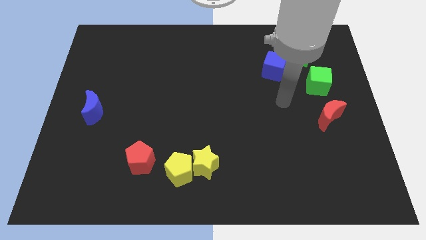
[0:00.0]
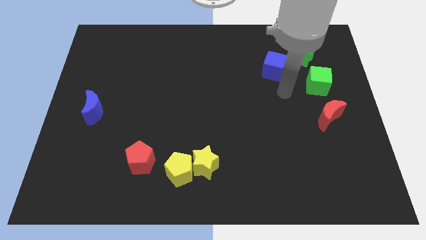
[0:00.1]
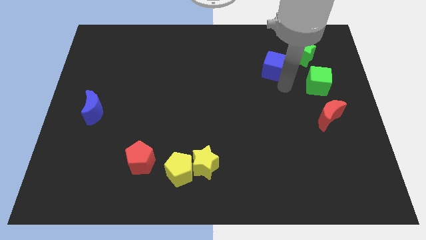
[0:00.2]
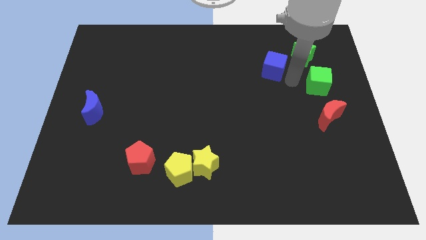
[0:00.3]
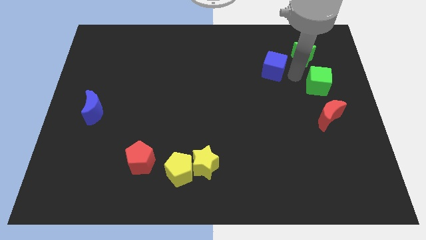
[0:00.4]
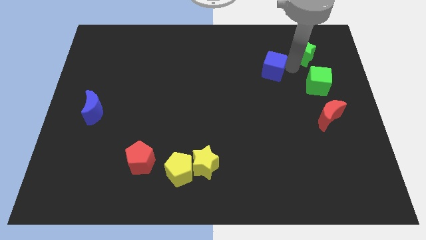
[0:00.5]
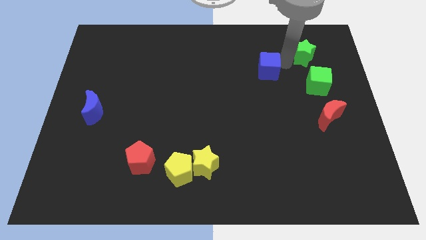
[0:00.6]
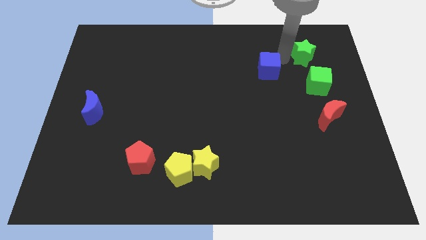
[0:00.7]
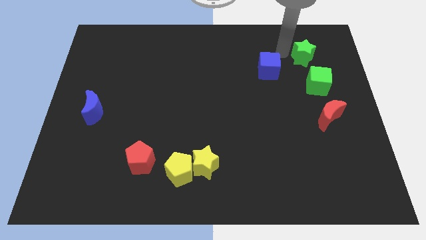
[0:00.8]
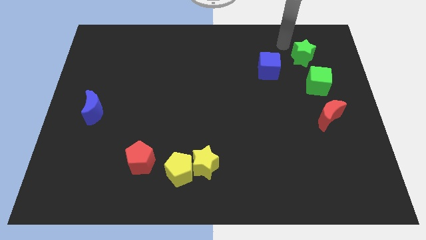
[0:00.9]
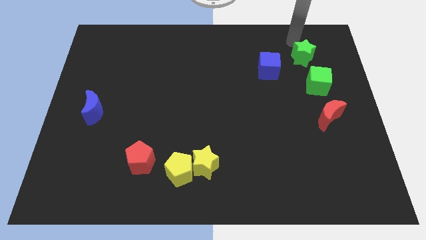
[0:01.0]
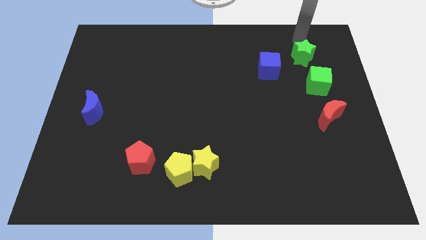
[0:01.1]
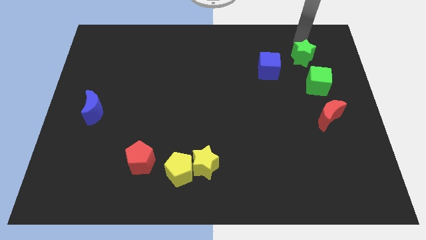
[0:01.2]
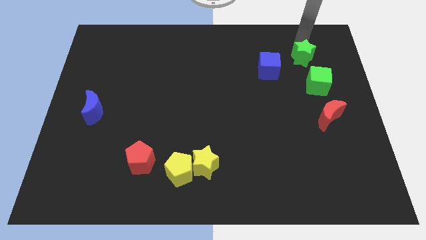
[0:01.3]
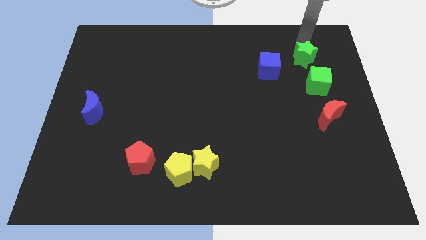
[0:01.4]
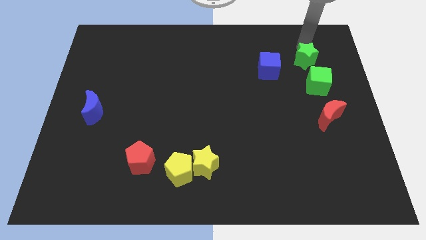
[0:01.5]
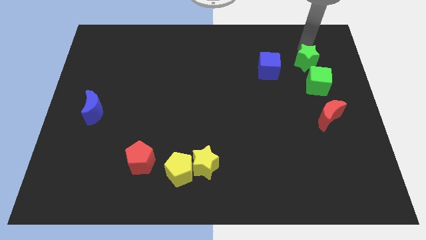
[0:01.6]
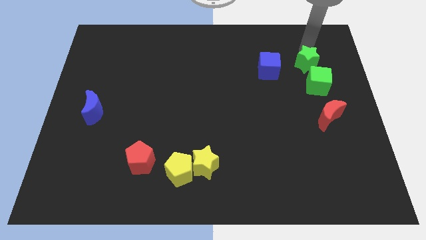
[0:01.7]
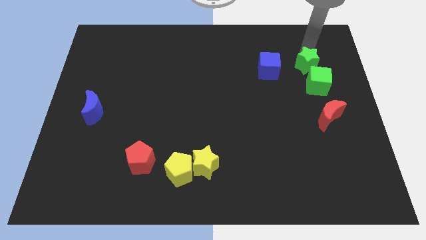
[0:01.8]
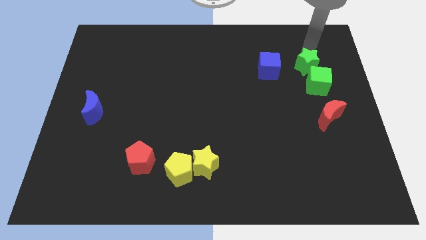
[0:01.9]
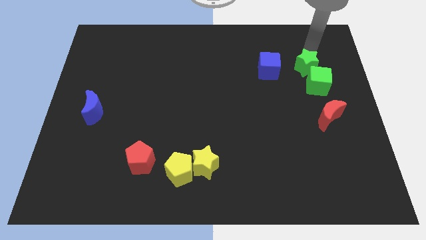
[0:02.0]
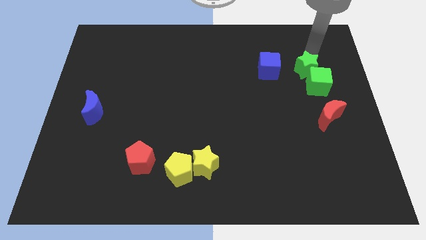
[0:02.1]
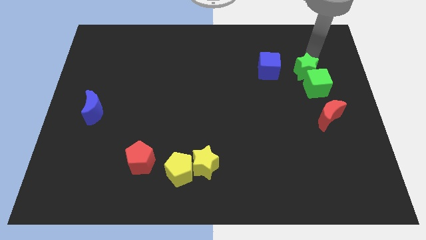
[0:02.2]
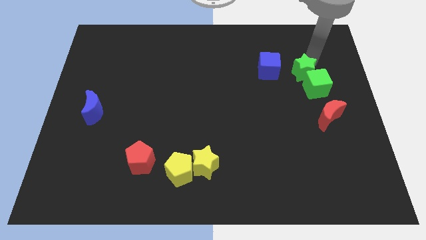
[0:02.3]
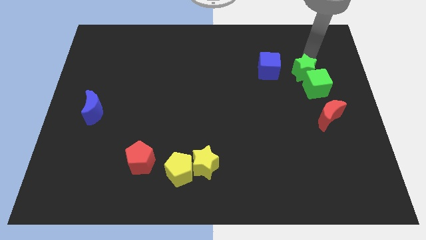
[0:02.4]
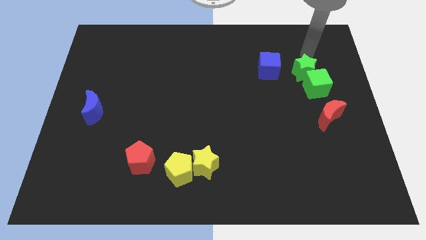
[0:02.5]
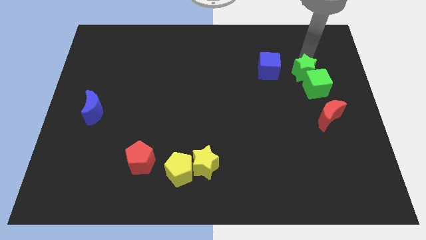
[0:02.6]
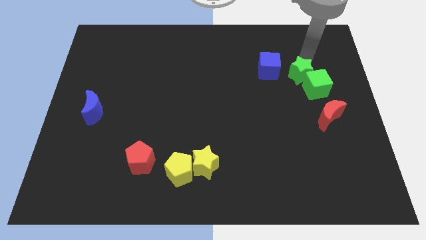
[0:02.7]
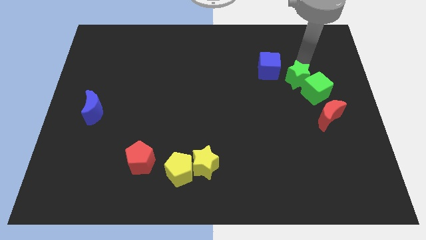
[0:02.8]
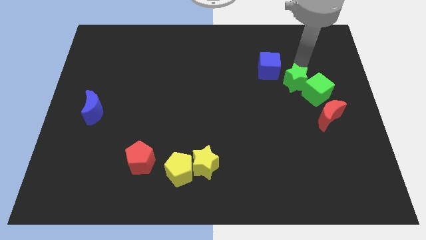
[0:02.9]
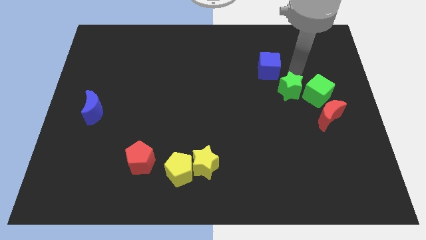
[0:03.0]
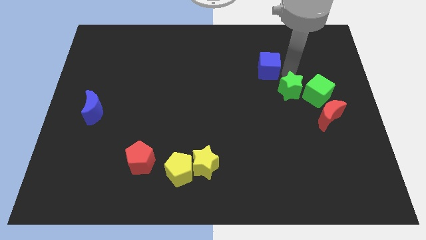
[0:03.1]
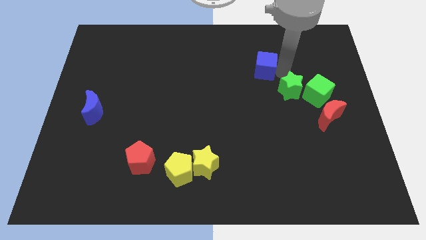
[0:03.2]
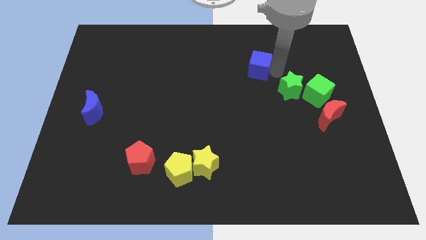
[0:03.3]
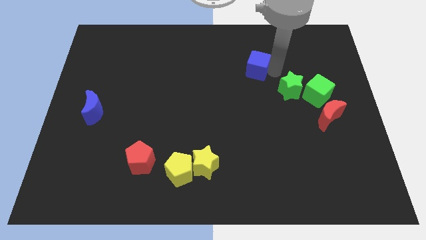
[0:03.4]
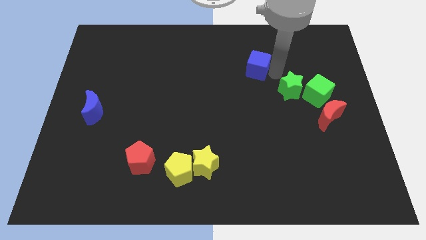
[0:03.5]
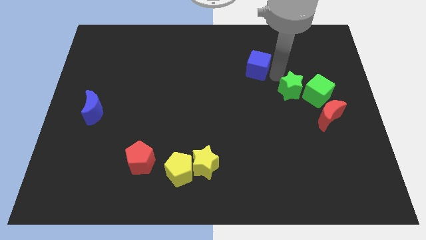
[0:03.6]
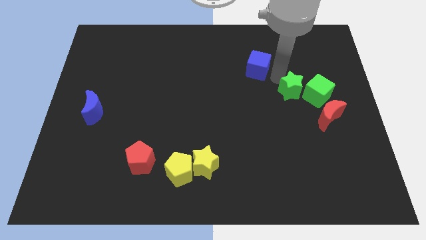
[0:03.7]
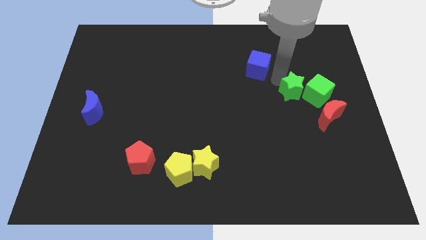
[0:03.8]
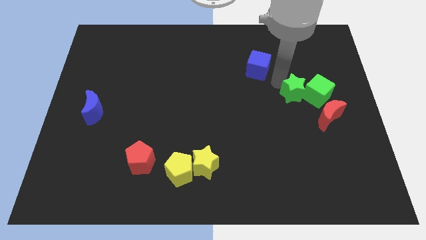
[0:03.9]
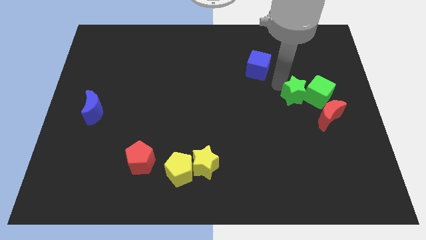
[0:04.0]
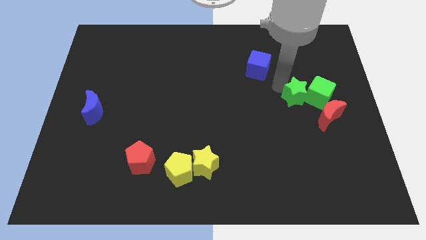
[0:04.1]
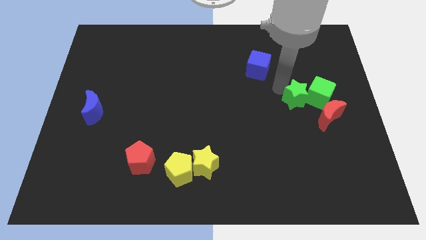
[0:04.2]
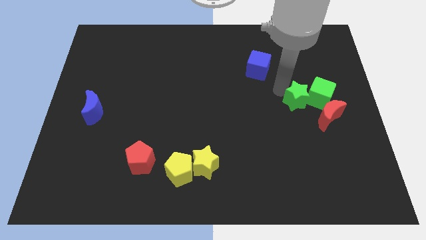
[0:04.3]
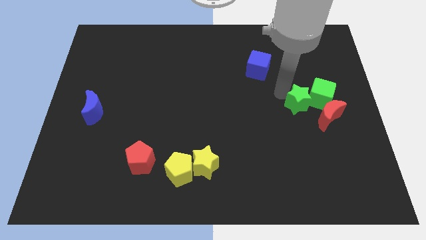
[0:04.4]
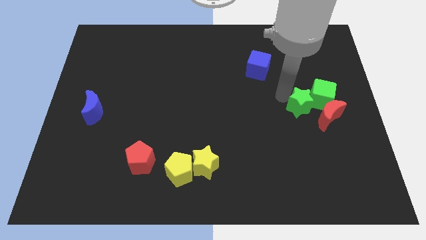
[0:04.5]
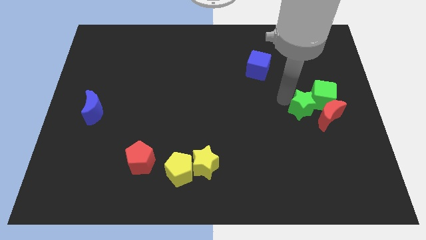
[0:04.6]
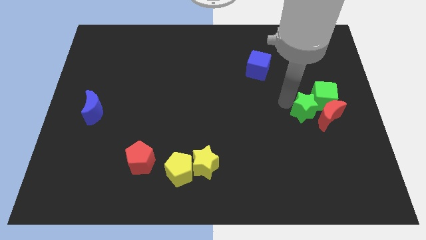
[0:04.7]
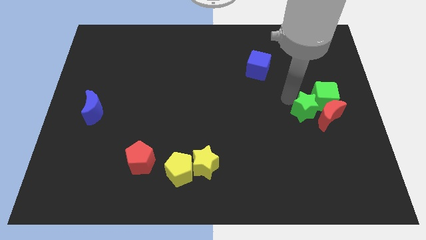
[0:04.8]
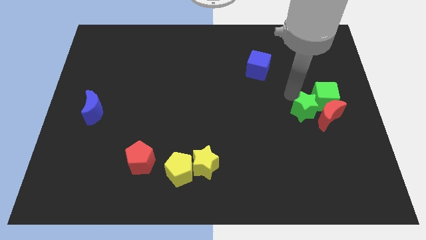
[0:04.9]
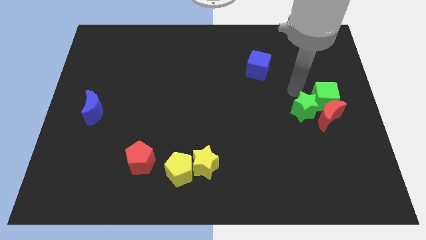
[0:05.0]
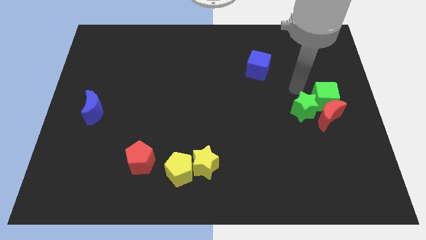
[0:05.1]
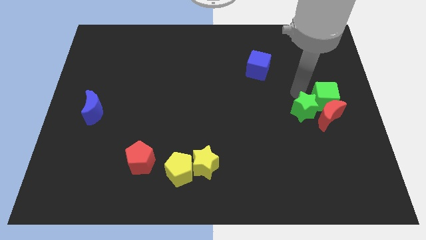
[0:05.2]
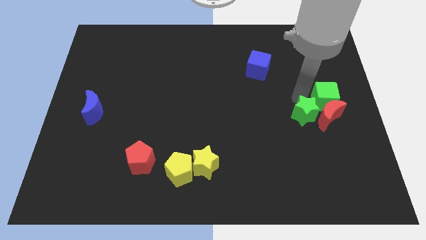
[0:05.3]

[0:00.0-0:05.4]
push the green star to the bottom left side of the red moon

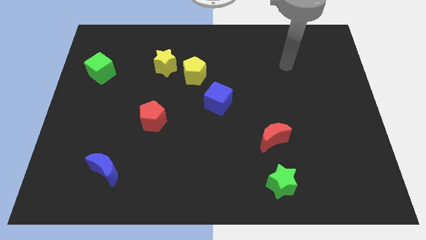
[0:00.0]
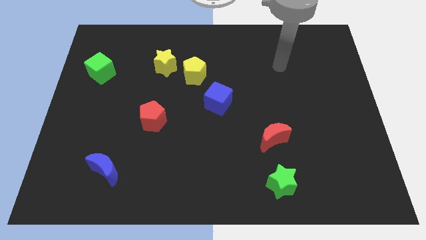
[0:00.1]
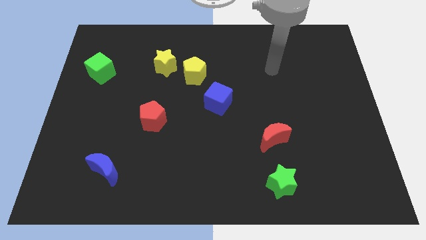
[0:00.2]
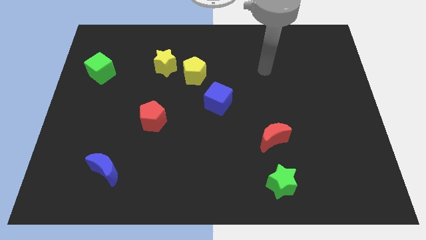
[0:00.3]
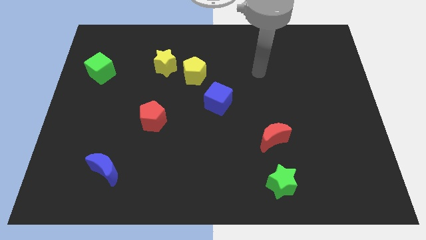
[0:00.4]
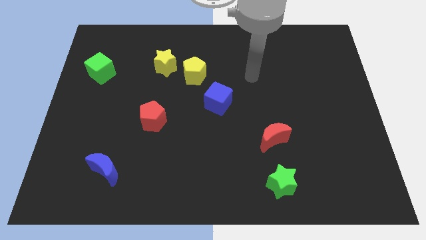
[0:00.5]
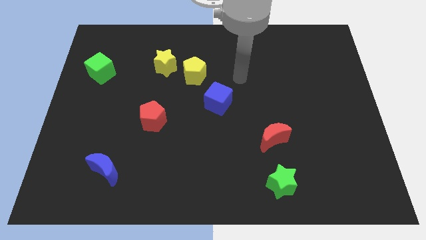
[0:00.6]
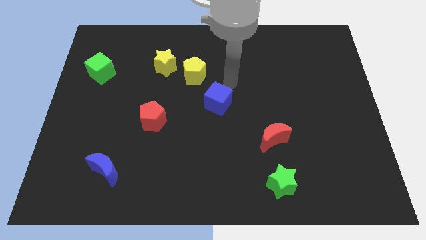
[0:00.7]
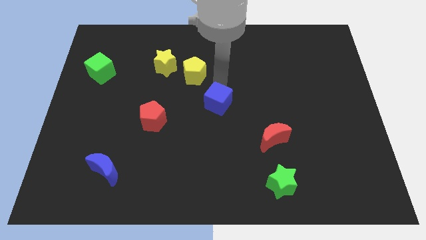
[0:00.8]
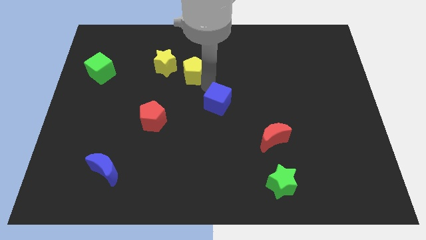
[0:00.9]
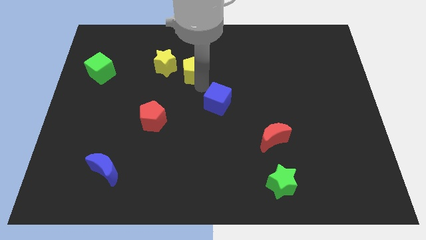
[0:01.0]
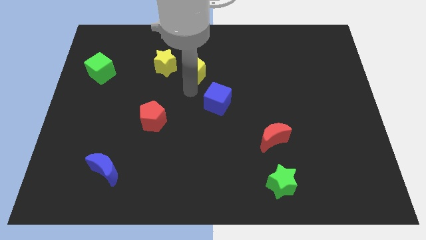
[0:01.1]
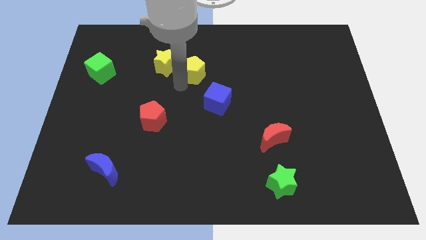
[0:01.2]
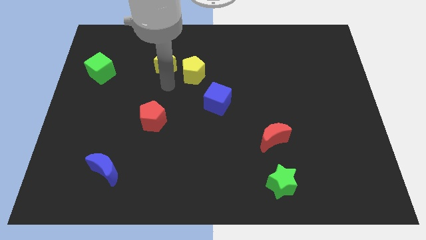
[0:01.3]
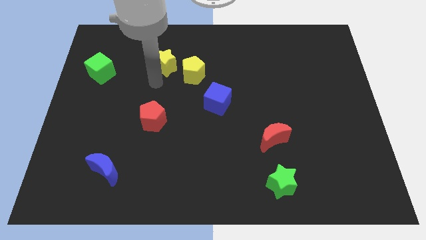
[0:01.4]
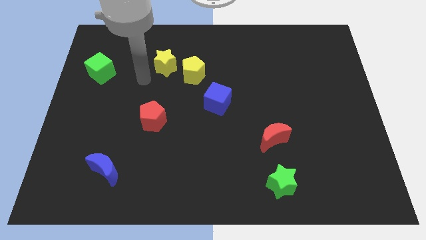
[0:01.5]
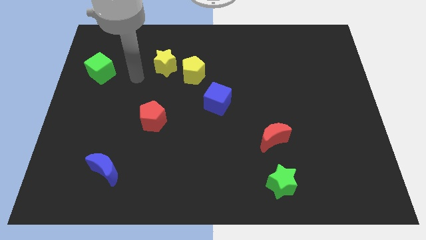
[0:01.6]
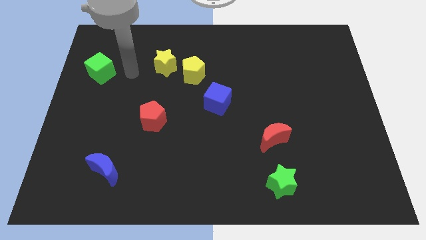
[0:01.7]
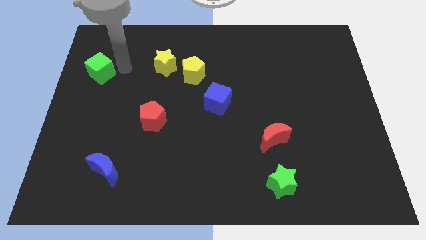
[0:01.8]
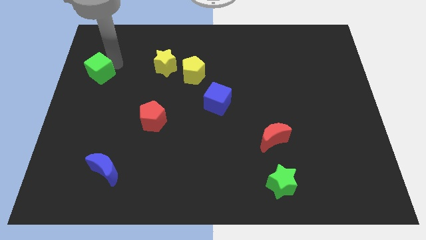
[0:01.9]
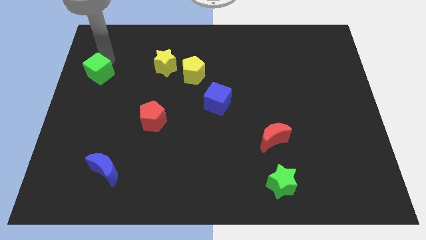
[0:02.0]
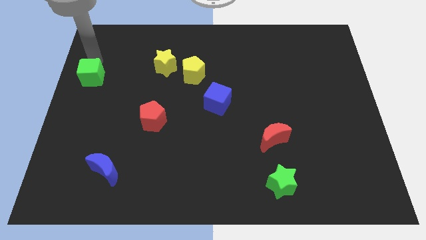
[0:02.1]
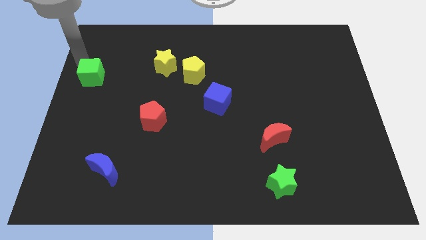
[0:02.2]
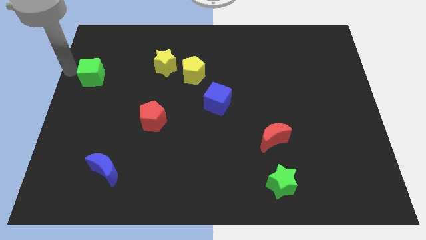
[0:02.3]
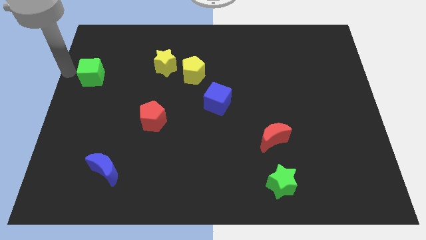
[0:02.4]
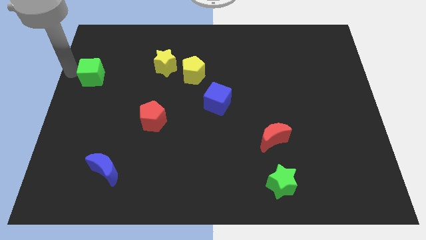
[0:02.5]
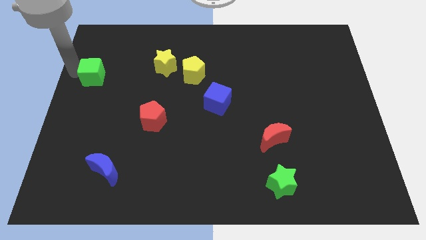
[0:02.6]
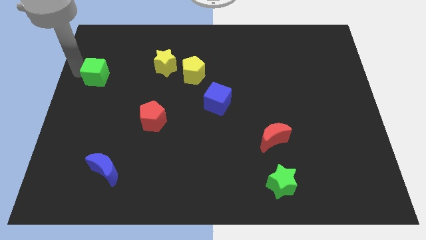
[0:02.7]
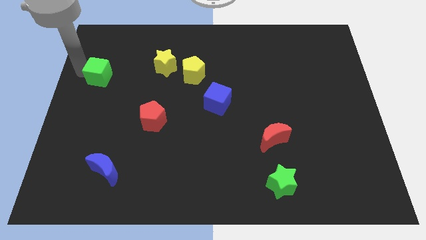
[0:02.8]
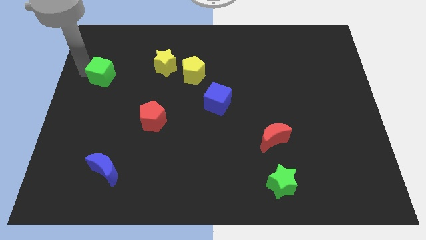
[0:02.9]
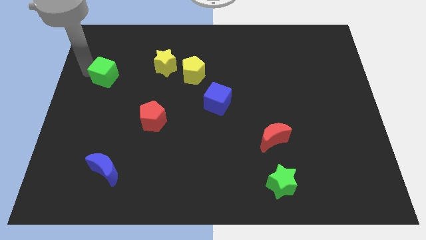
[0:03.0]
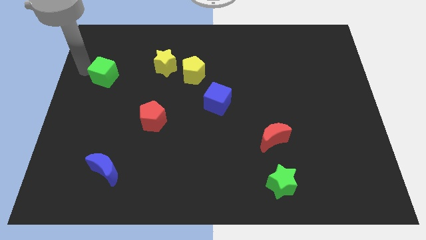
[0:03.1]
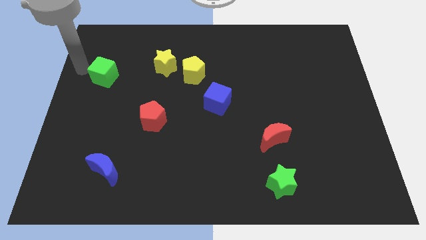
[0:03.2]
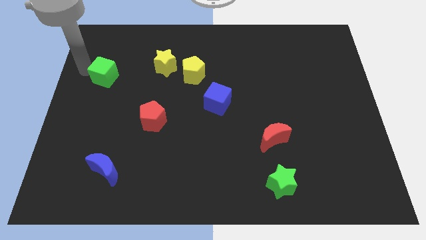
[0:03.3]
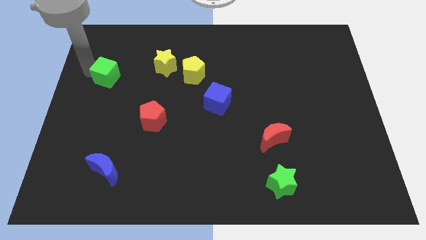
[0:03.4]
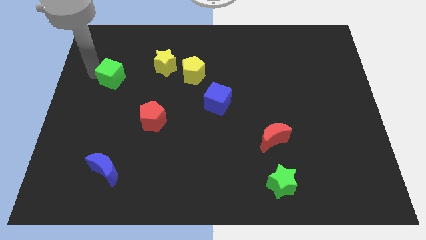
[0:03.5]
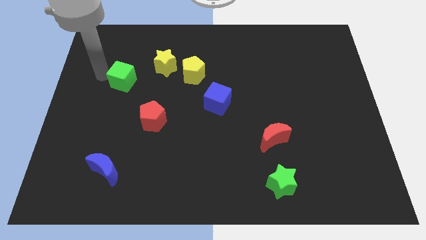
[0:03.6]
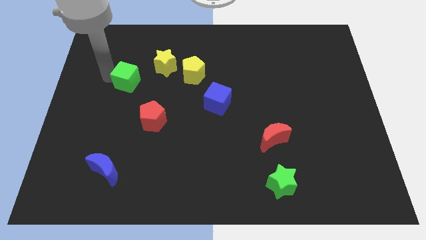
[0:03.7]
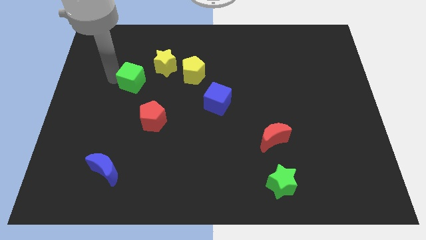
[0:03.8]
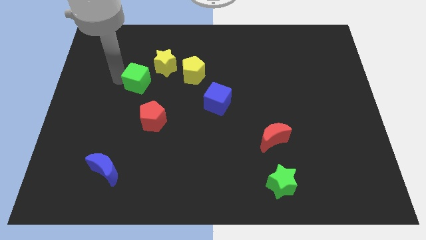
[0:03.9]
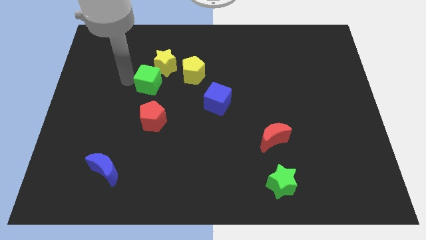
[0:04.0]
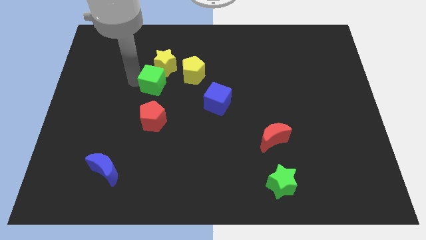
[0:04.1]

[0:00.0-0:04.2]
put the green cube to the bottom left of the yellow pentagon
